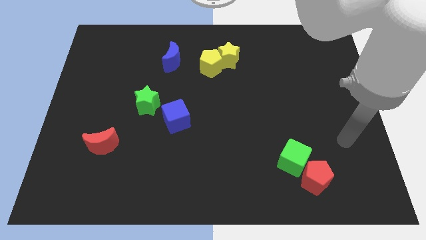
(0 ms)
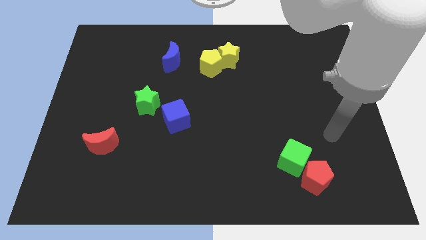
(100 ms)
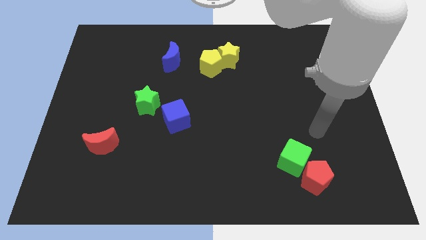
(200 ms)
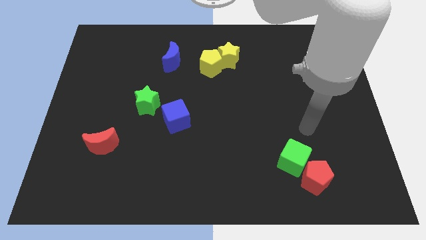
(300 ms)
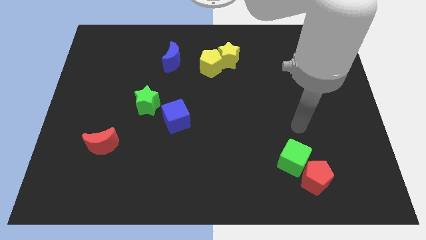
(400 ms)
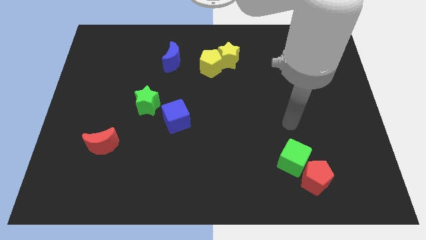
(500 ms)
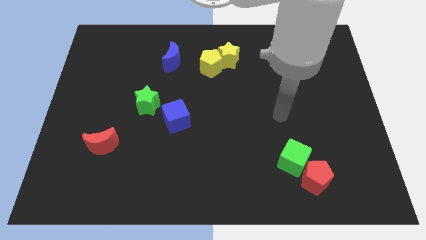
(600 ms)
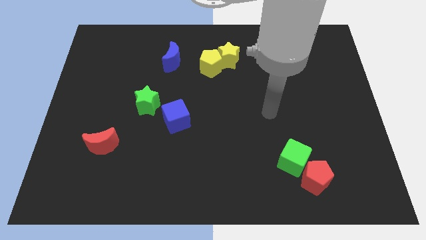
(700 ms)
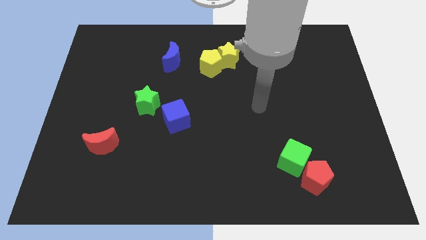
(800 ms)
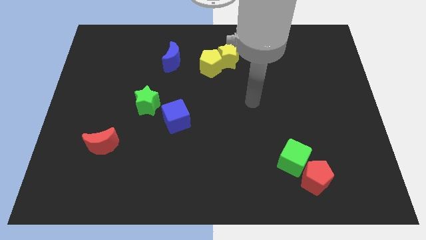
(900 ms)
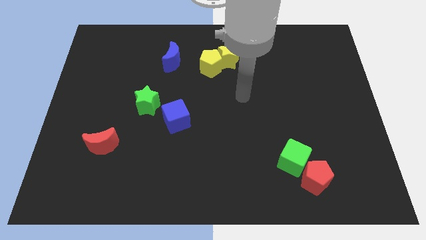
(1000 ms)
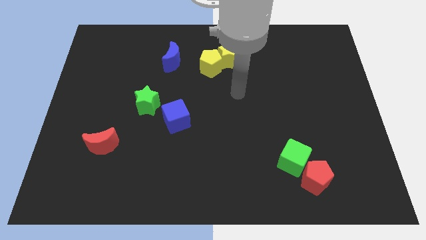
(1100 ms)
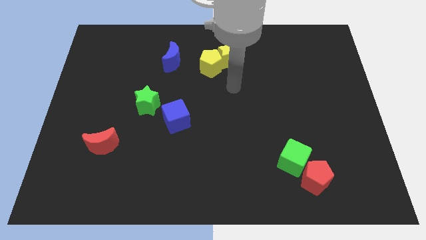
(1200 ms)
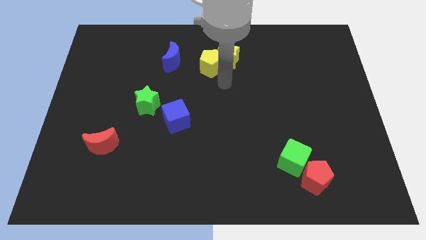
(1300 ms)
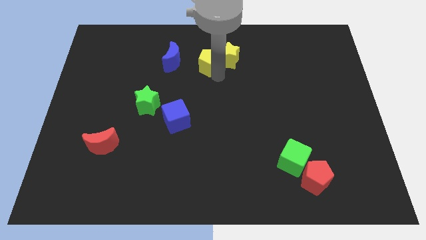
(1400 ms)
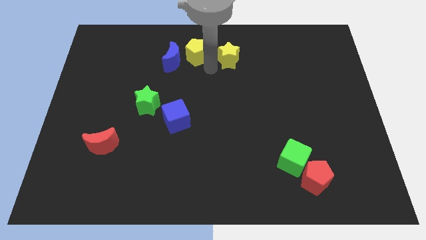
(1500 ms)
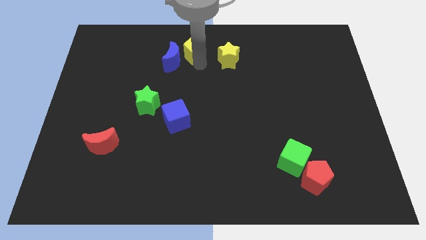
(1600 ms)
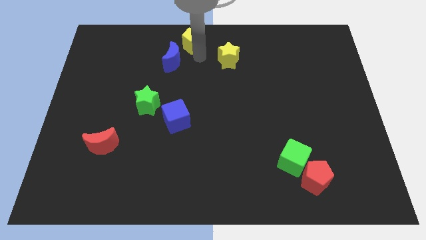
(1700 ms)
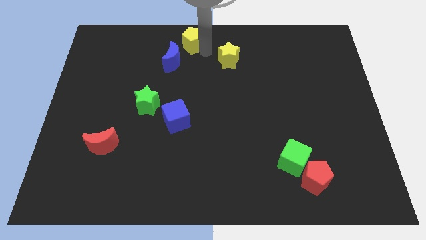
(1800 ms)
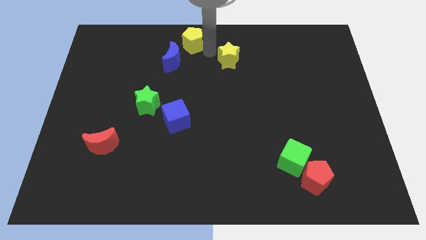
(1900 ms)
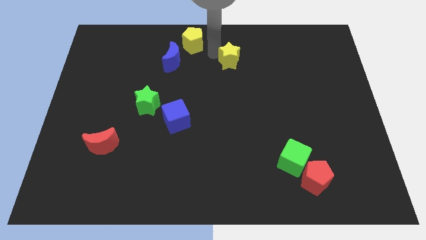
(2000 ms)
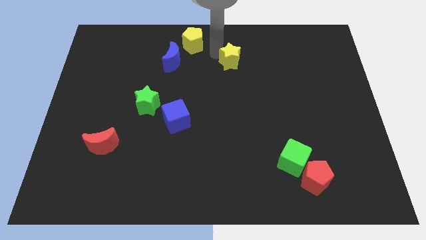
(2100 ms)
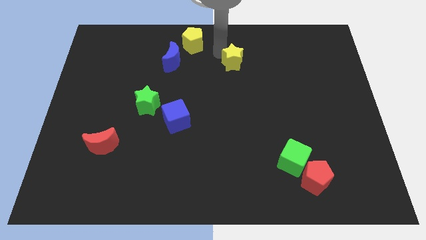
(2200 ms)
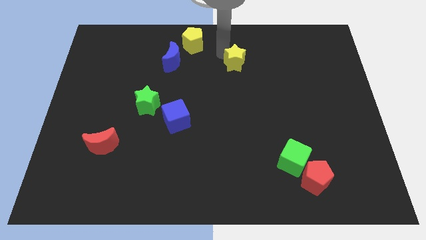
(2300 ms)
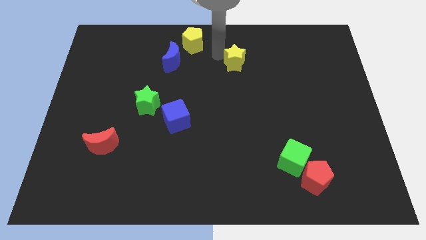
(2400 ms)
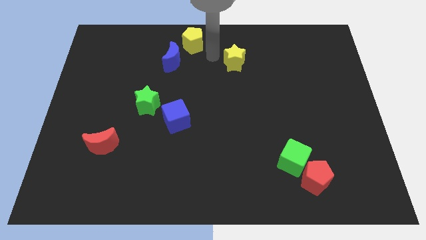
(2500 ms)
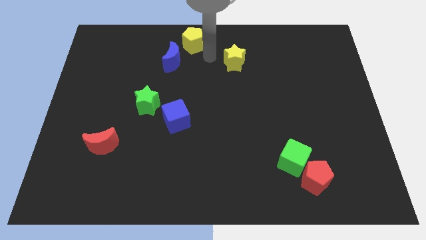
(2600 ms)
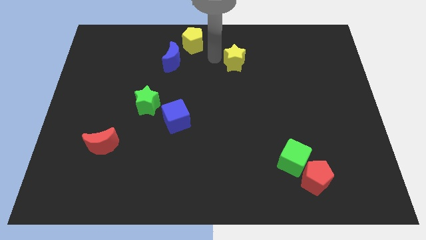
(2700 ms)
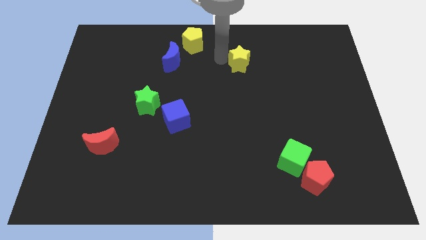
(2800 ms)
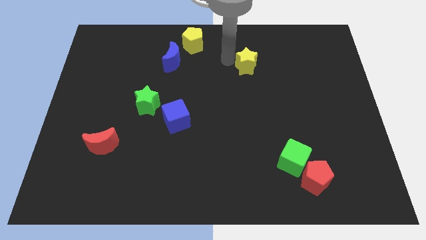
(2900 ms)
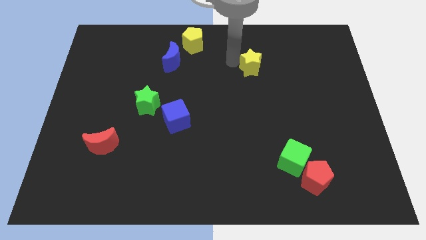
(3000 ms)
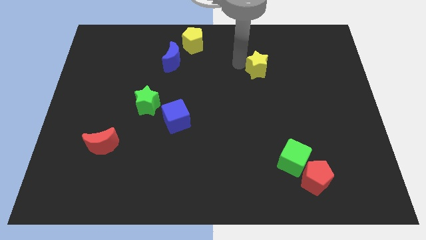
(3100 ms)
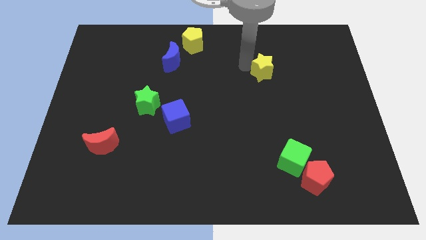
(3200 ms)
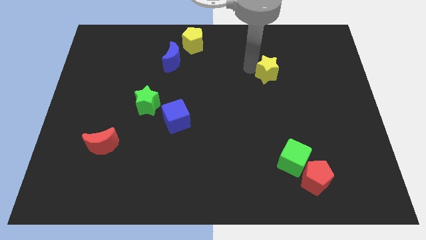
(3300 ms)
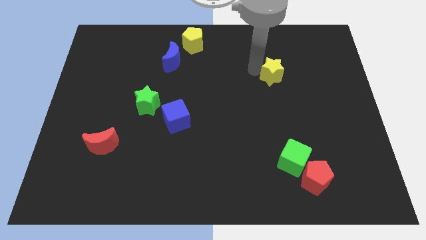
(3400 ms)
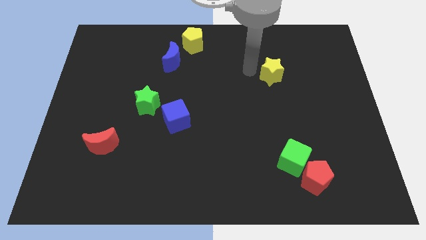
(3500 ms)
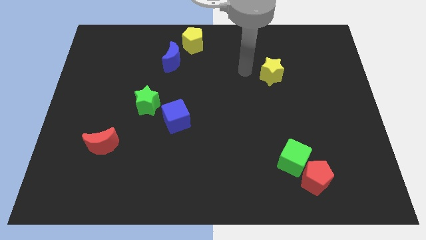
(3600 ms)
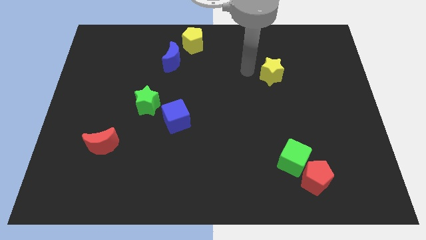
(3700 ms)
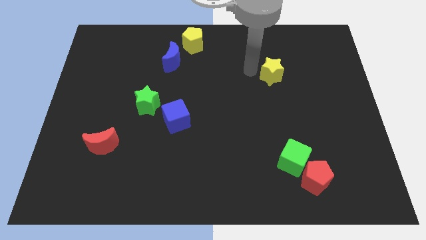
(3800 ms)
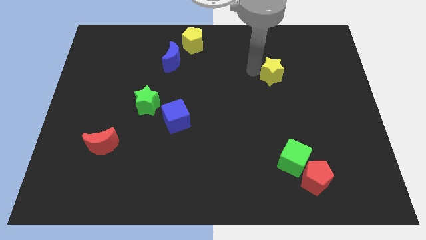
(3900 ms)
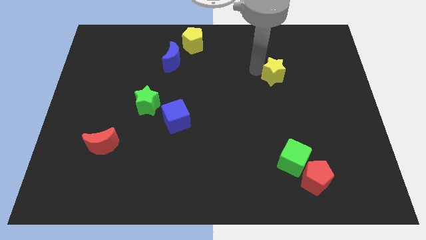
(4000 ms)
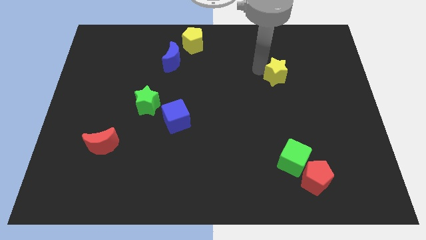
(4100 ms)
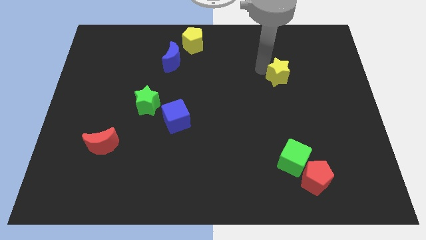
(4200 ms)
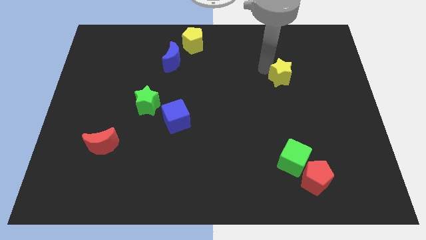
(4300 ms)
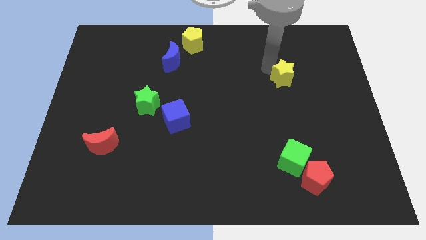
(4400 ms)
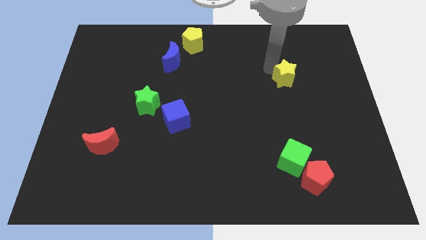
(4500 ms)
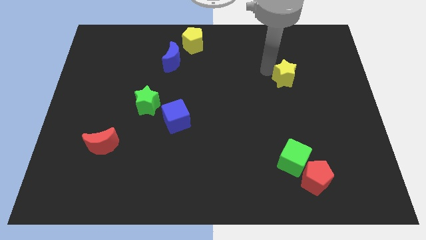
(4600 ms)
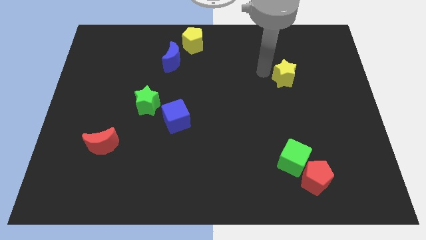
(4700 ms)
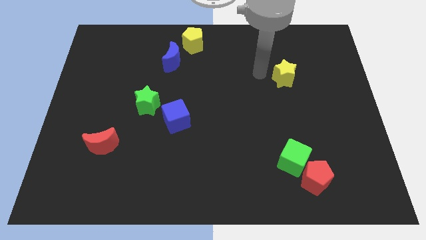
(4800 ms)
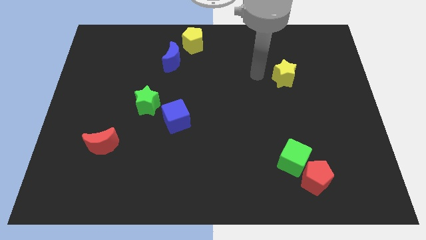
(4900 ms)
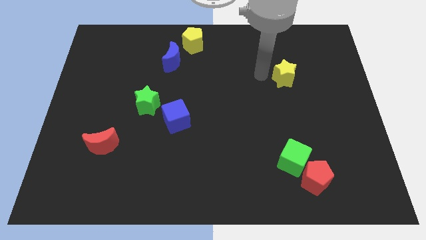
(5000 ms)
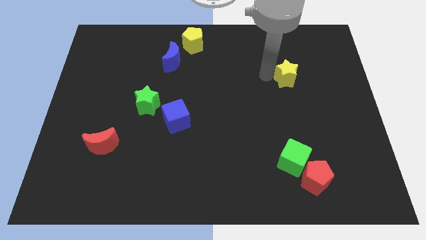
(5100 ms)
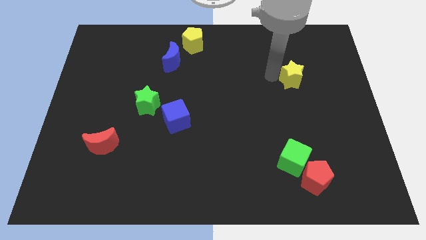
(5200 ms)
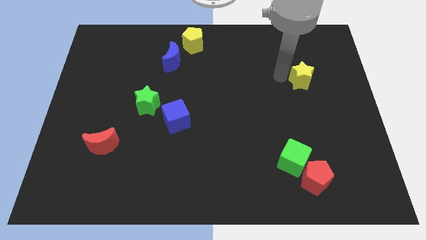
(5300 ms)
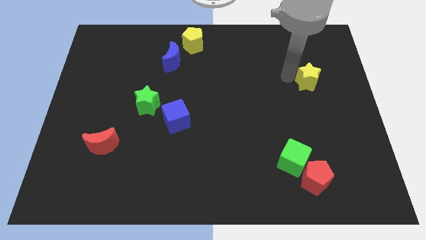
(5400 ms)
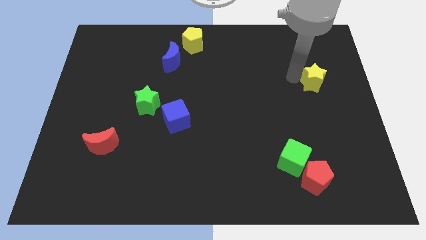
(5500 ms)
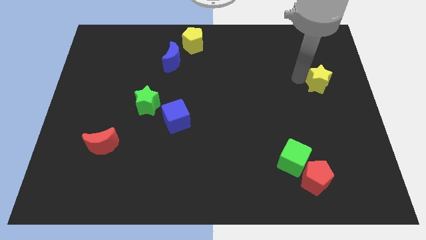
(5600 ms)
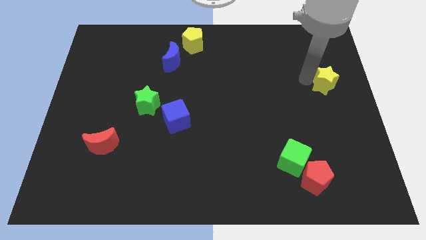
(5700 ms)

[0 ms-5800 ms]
move the yellow star to the right side of the board
